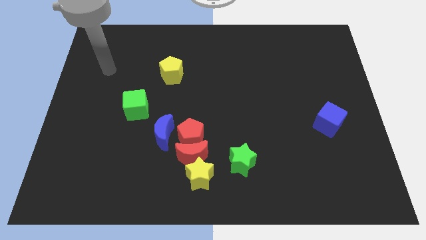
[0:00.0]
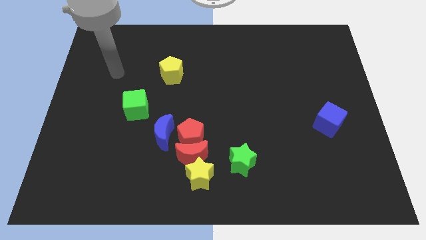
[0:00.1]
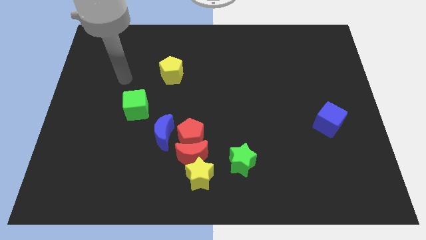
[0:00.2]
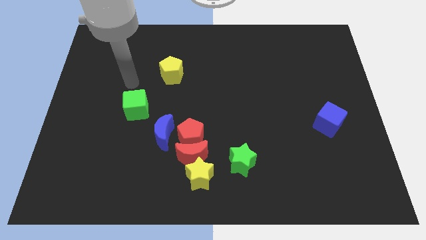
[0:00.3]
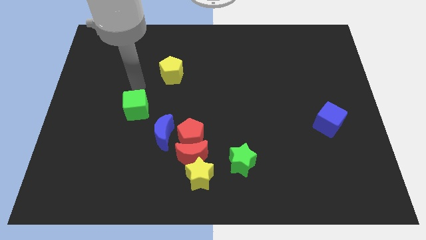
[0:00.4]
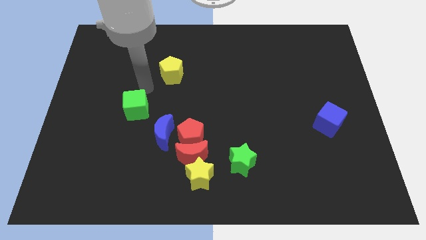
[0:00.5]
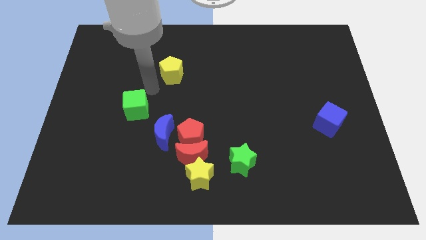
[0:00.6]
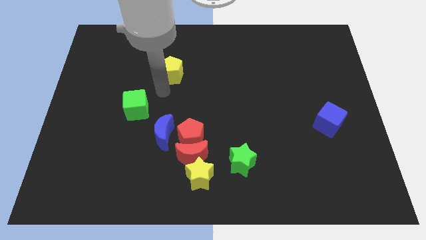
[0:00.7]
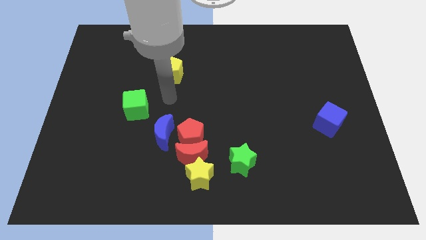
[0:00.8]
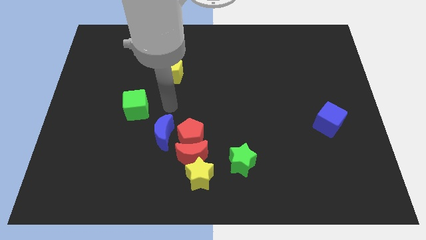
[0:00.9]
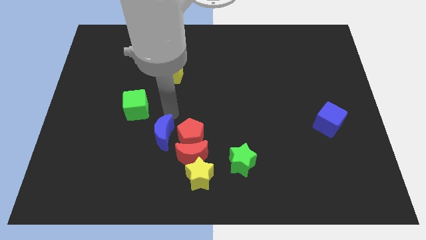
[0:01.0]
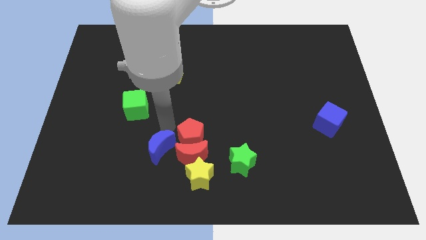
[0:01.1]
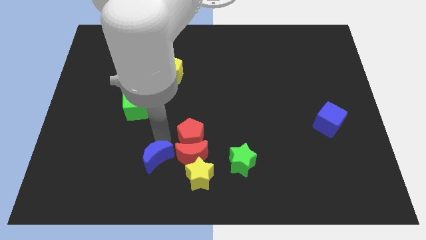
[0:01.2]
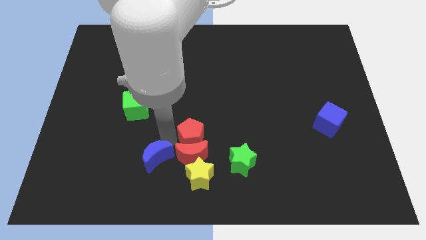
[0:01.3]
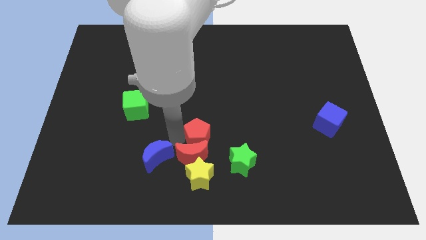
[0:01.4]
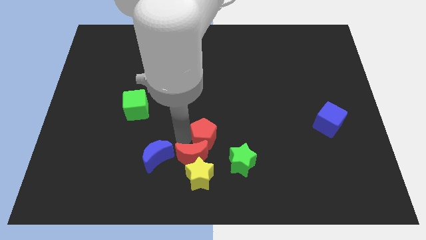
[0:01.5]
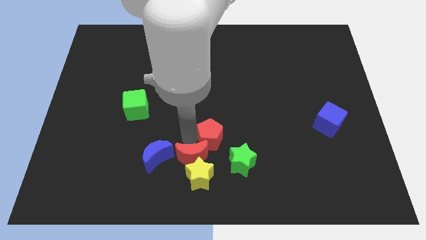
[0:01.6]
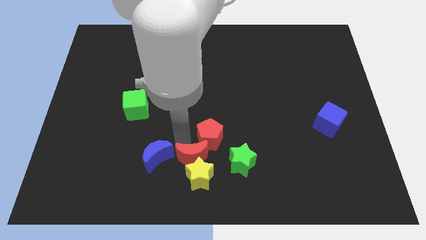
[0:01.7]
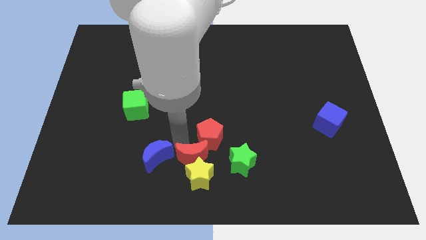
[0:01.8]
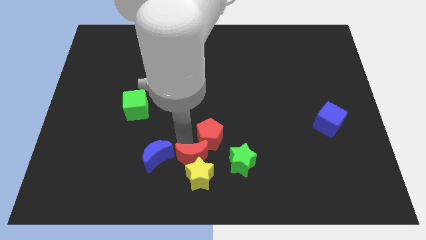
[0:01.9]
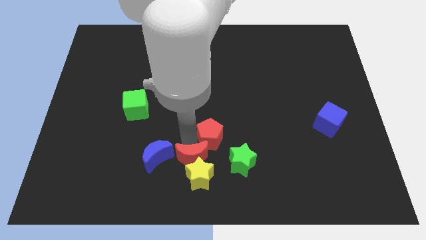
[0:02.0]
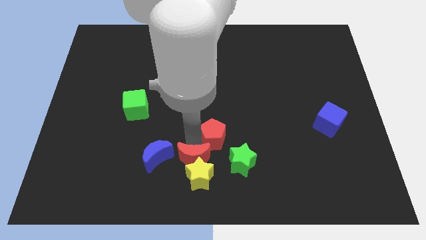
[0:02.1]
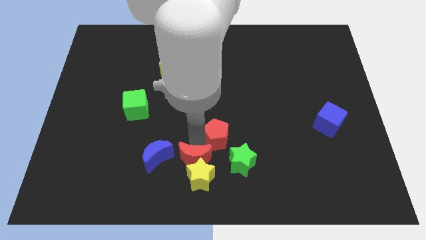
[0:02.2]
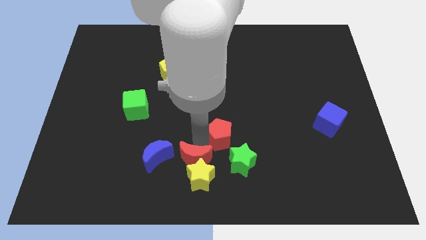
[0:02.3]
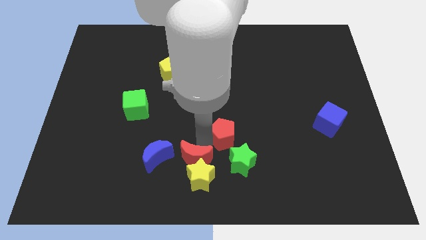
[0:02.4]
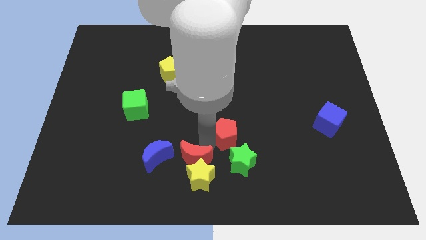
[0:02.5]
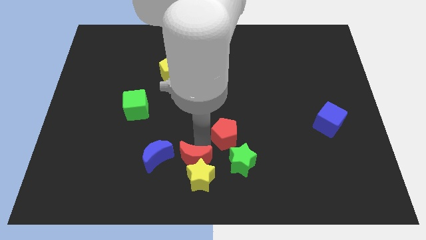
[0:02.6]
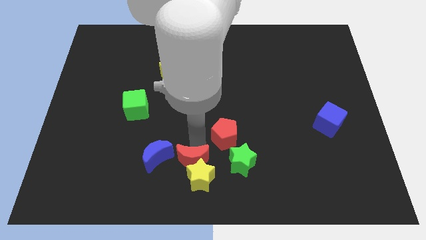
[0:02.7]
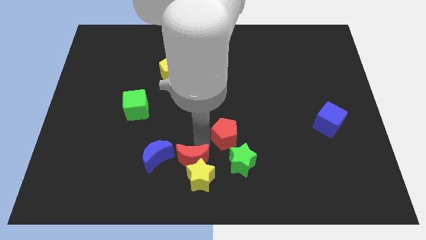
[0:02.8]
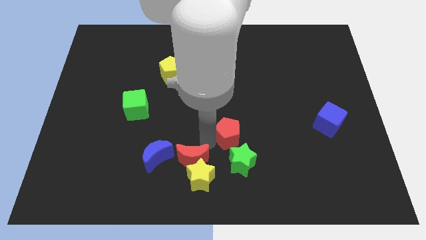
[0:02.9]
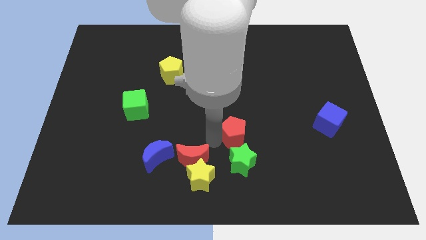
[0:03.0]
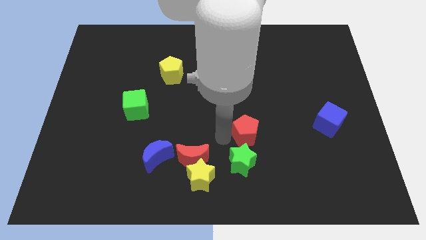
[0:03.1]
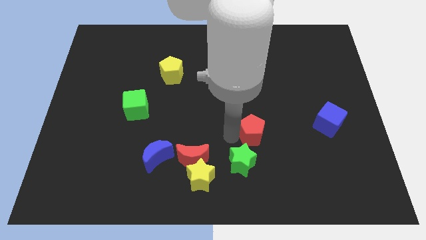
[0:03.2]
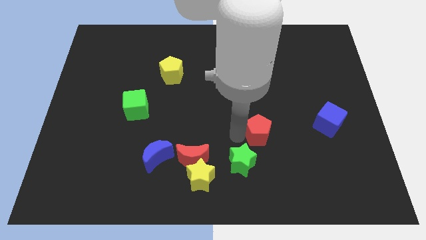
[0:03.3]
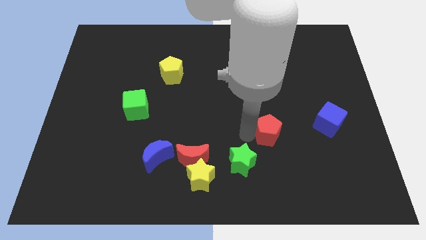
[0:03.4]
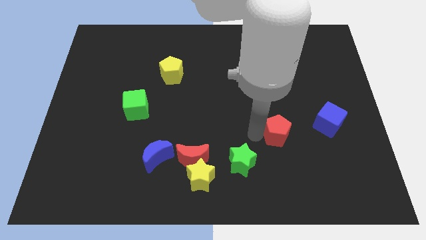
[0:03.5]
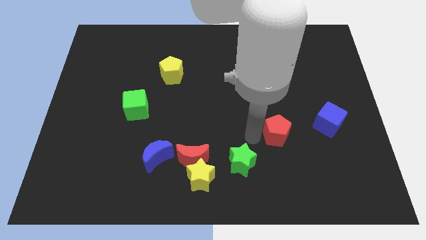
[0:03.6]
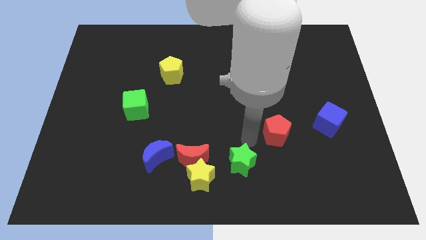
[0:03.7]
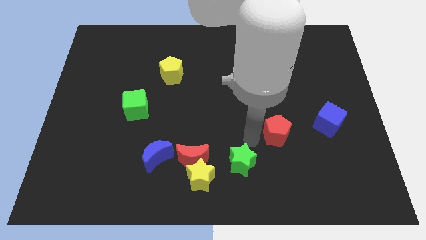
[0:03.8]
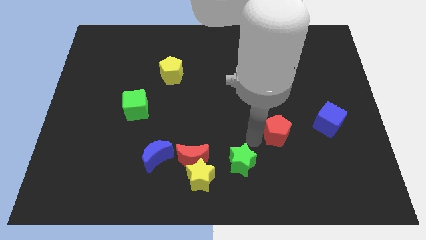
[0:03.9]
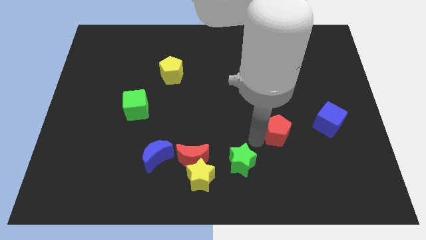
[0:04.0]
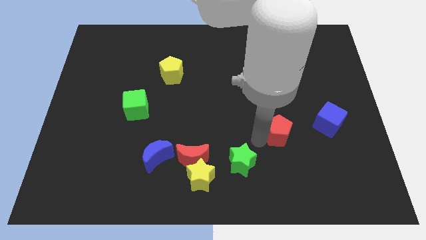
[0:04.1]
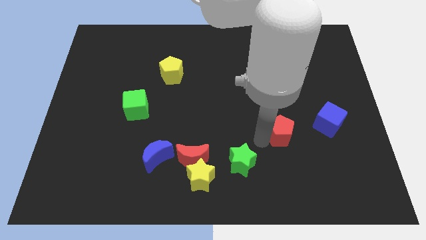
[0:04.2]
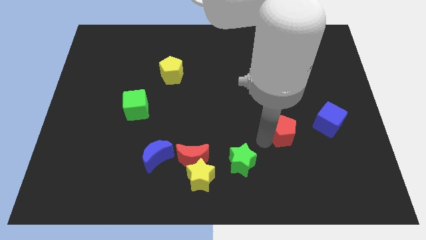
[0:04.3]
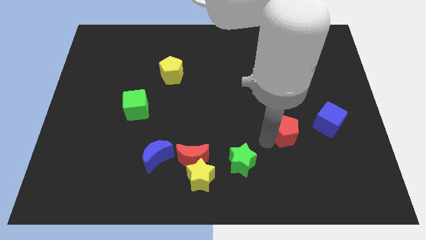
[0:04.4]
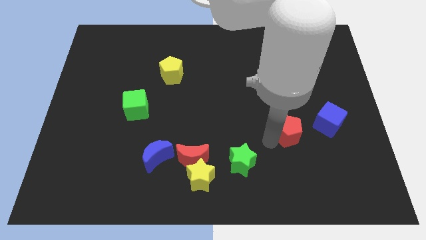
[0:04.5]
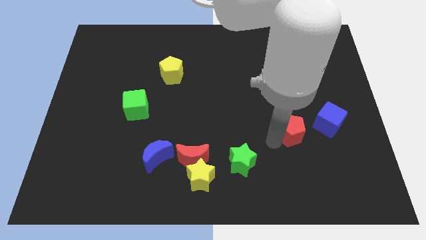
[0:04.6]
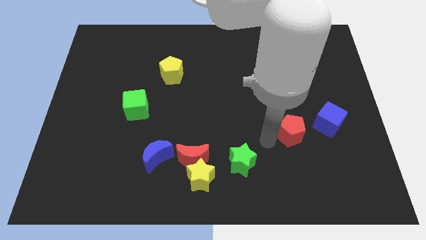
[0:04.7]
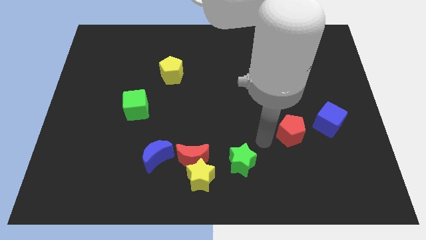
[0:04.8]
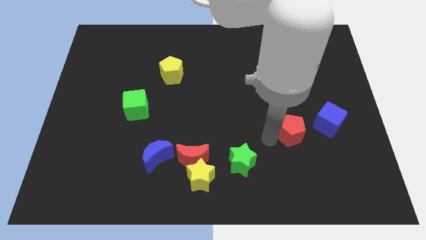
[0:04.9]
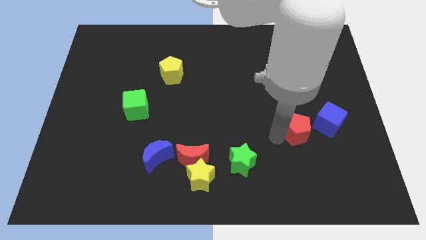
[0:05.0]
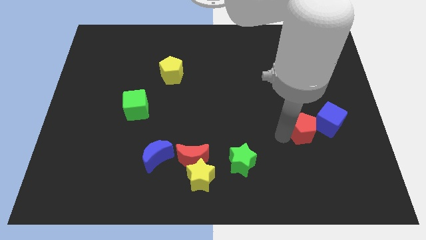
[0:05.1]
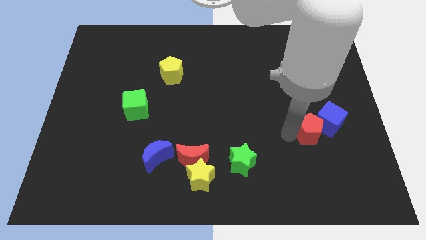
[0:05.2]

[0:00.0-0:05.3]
put the red pentagon towards the blue cube

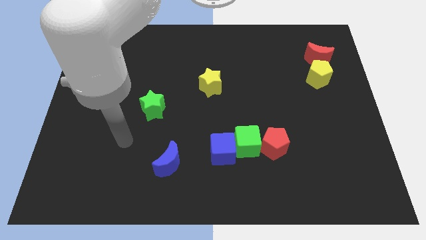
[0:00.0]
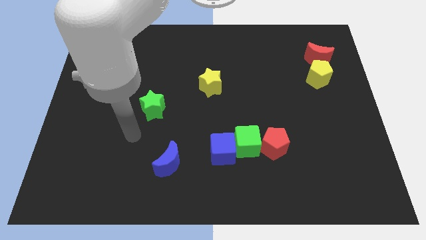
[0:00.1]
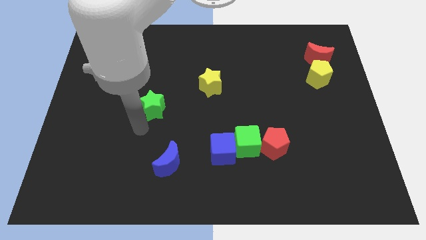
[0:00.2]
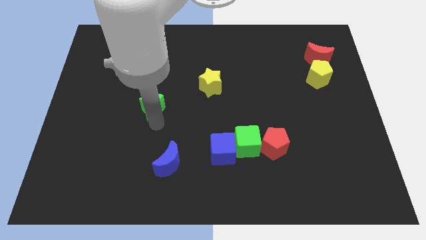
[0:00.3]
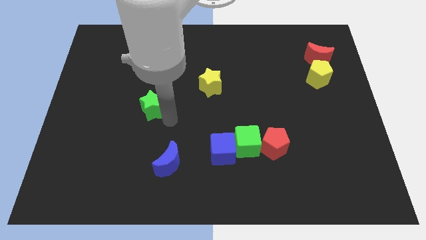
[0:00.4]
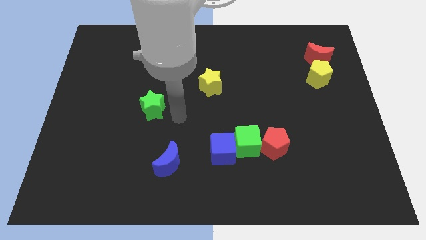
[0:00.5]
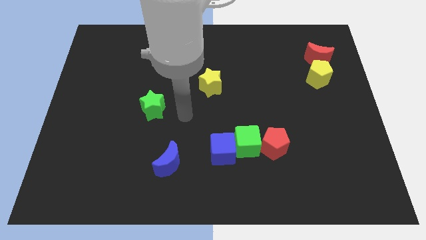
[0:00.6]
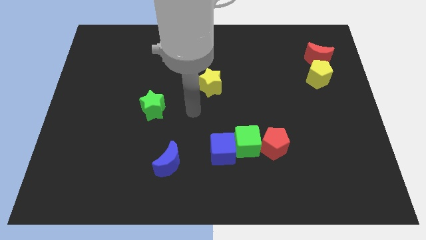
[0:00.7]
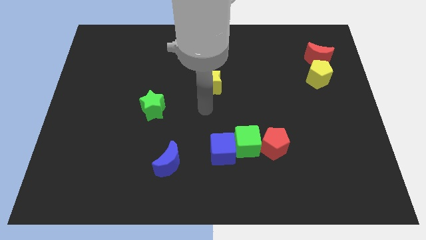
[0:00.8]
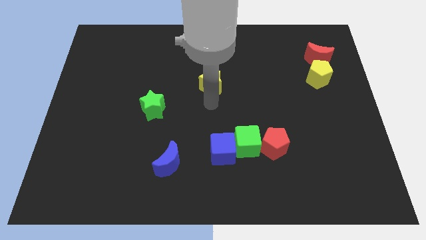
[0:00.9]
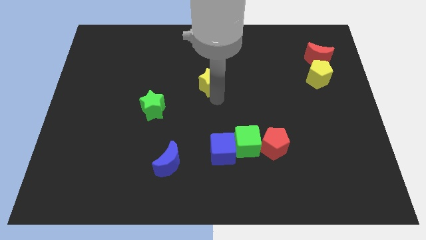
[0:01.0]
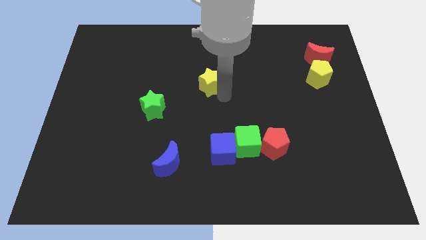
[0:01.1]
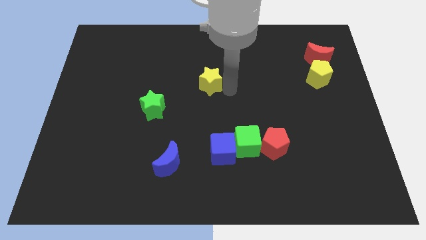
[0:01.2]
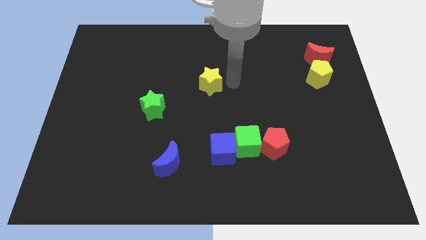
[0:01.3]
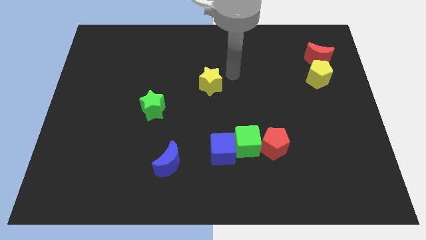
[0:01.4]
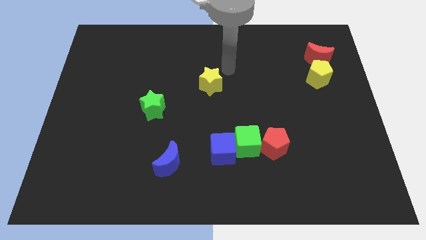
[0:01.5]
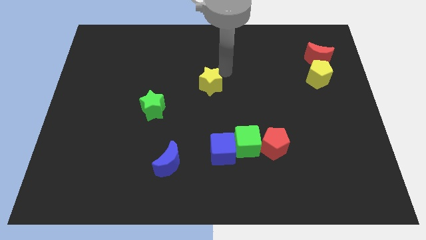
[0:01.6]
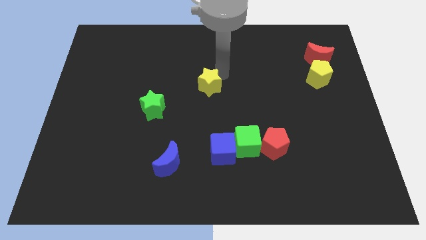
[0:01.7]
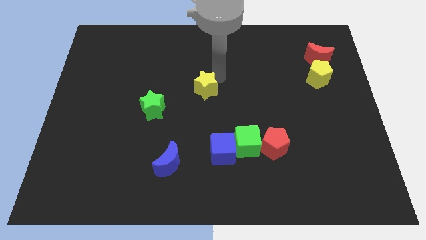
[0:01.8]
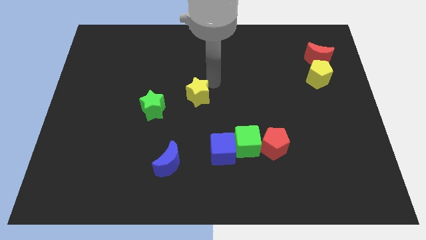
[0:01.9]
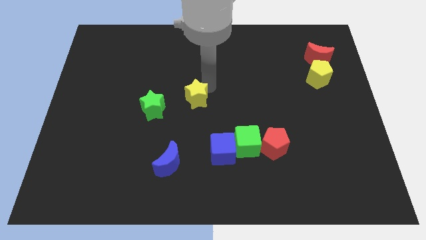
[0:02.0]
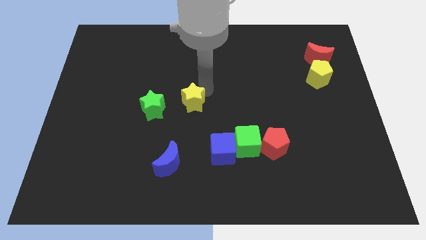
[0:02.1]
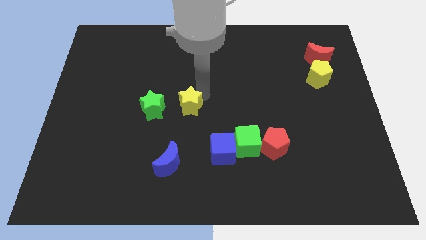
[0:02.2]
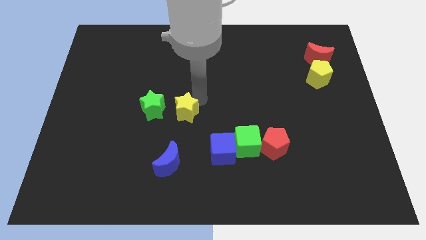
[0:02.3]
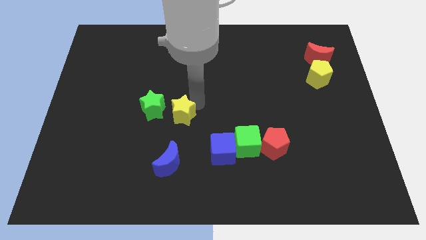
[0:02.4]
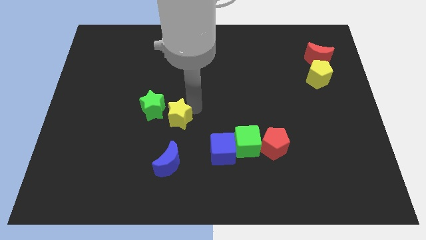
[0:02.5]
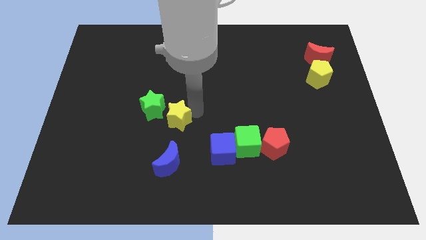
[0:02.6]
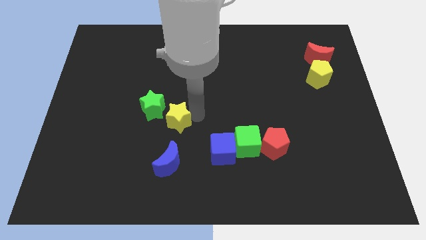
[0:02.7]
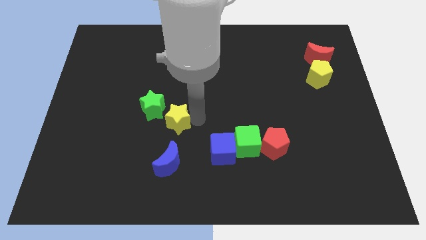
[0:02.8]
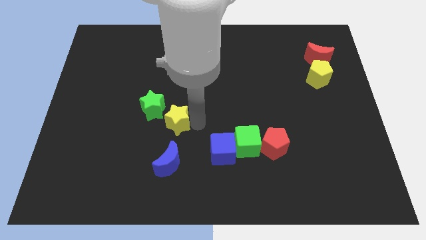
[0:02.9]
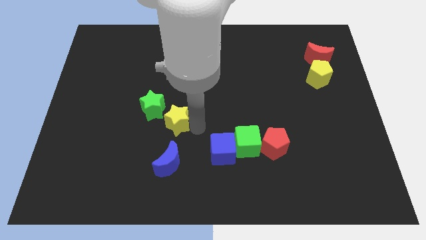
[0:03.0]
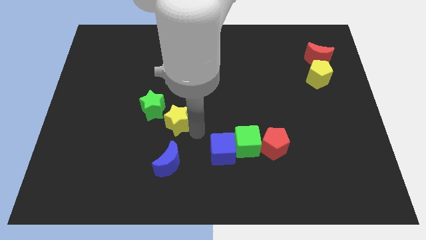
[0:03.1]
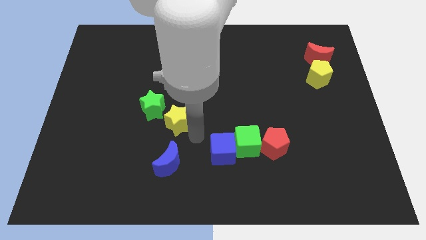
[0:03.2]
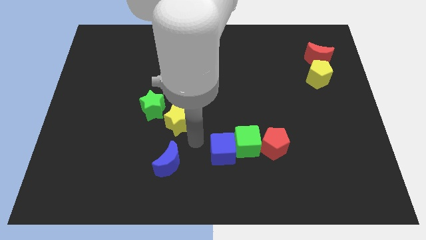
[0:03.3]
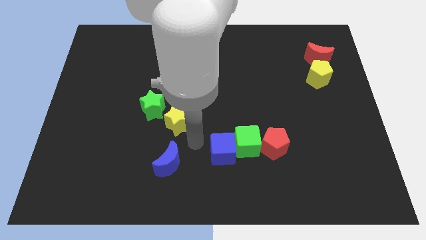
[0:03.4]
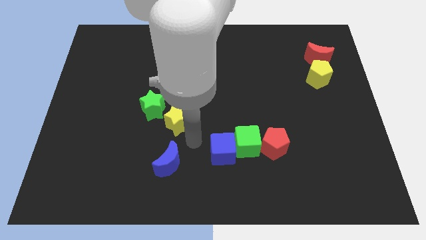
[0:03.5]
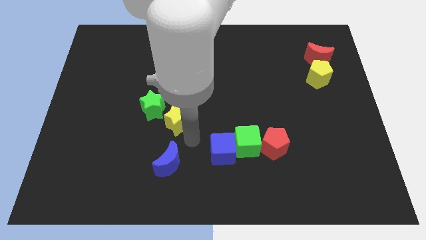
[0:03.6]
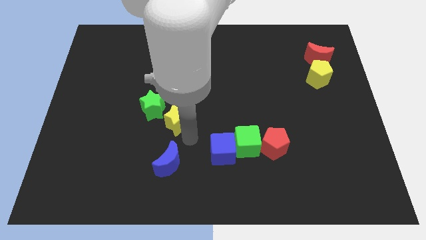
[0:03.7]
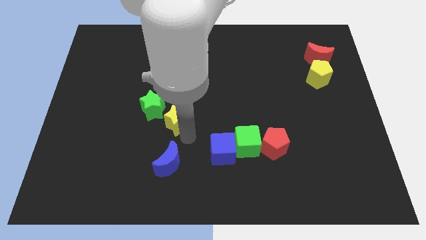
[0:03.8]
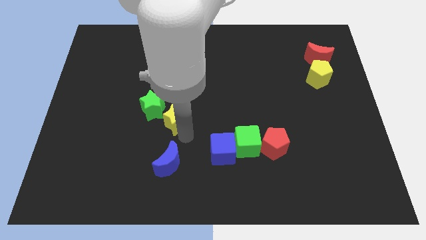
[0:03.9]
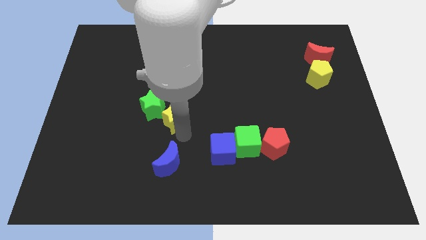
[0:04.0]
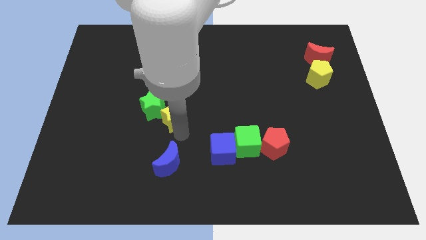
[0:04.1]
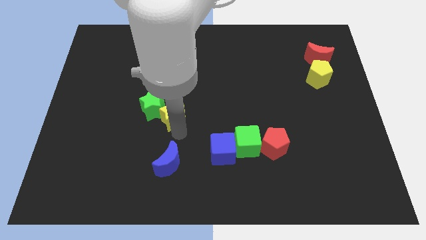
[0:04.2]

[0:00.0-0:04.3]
push the yellow star towards the green star
